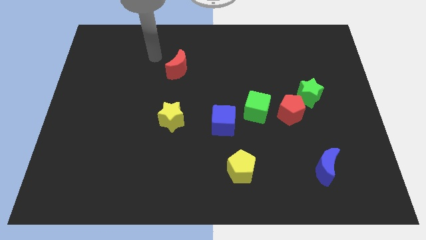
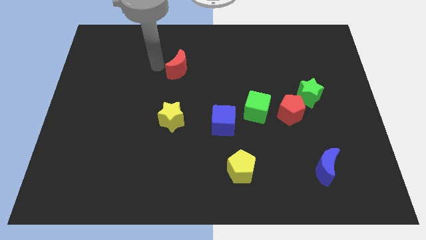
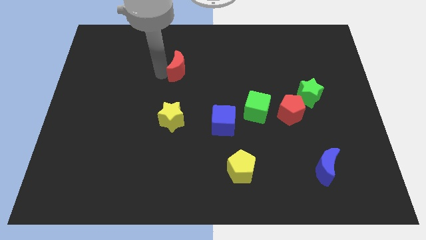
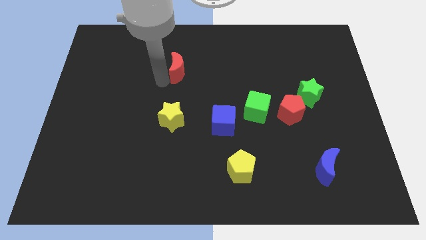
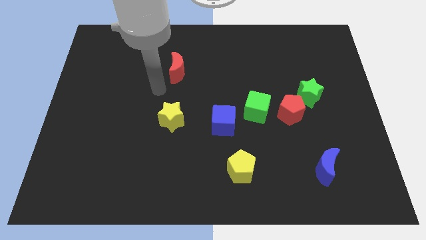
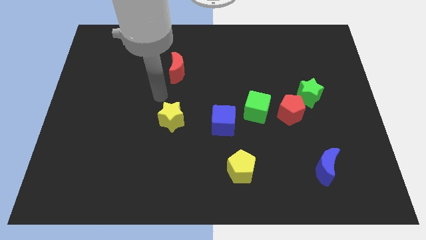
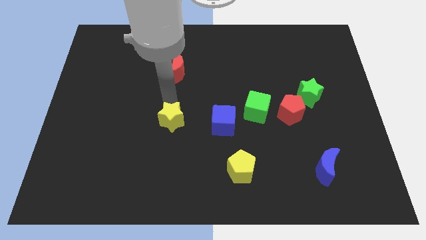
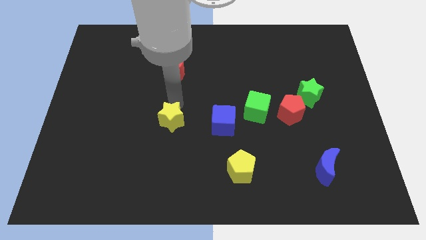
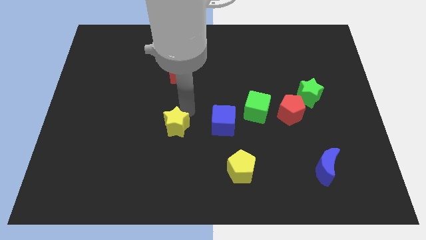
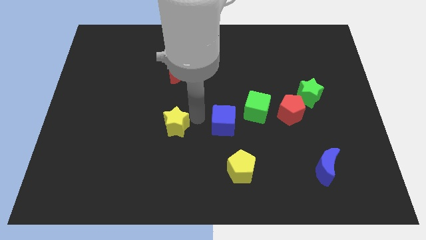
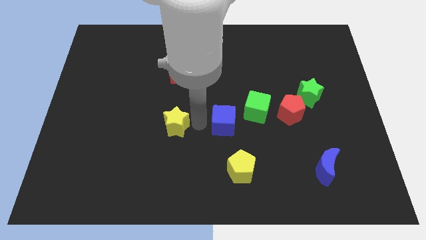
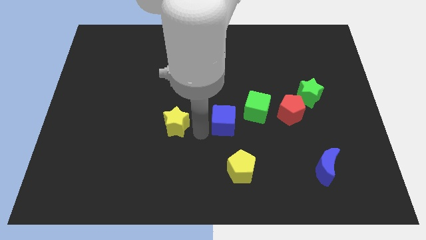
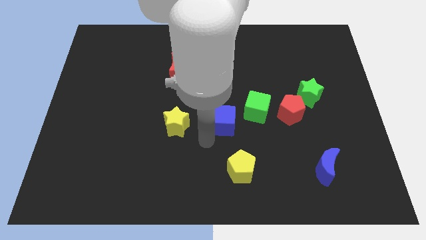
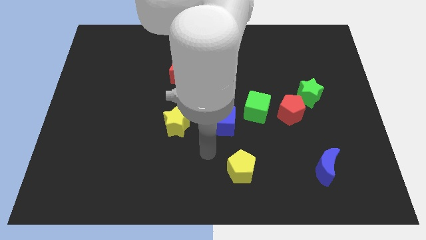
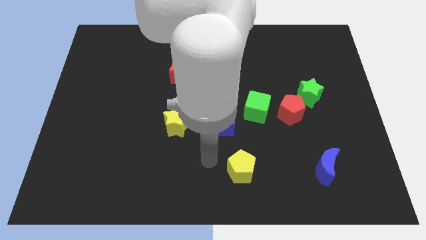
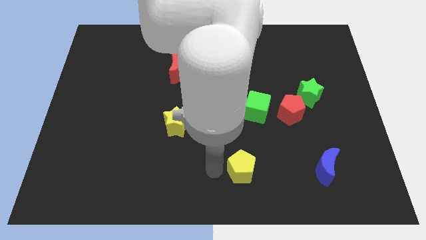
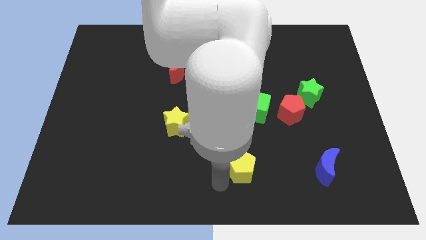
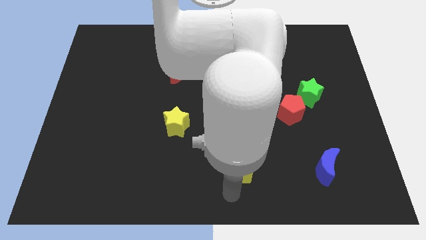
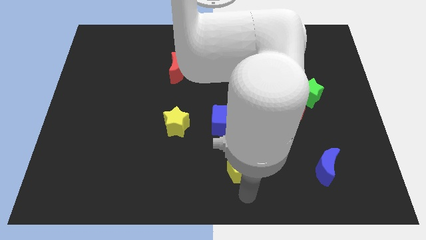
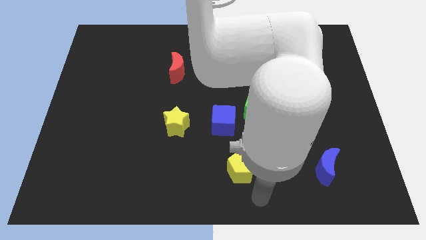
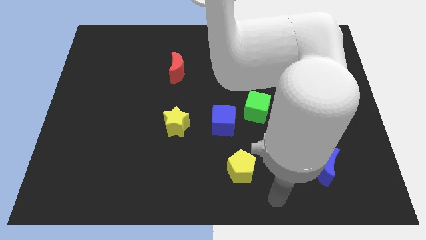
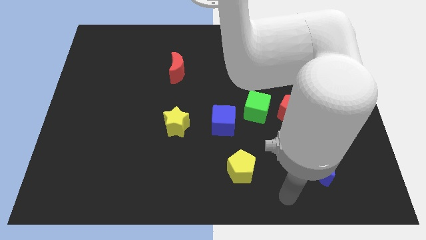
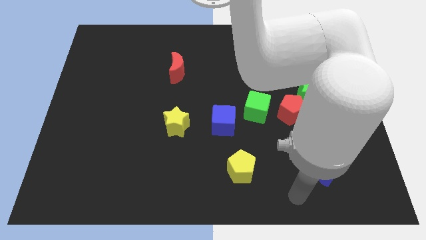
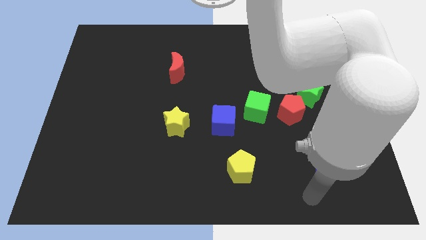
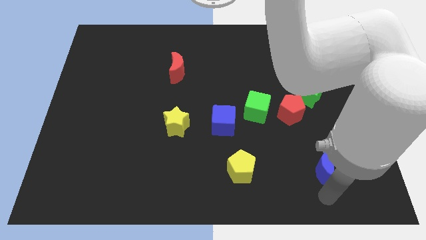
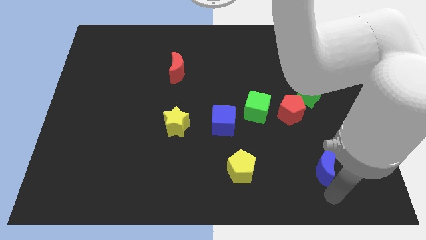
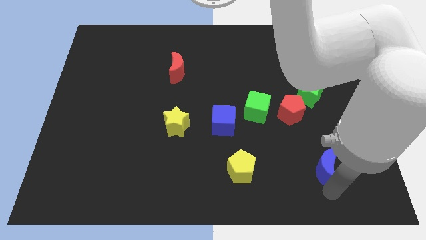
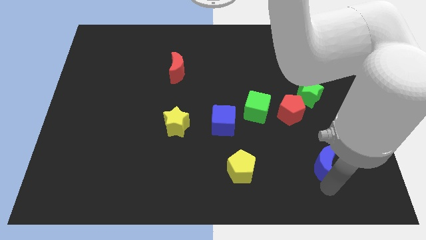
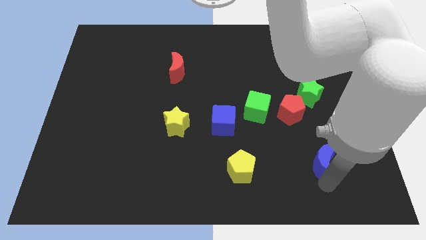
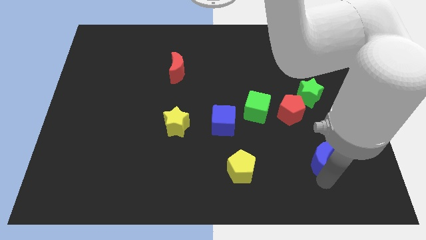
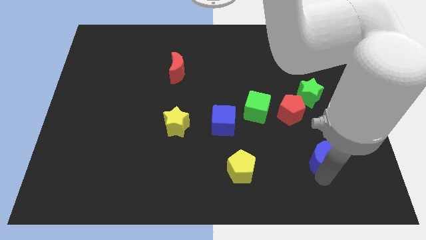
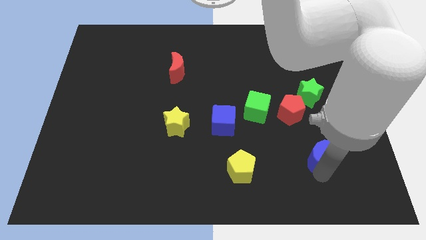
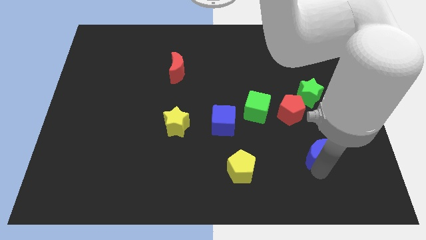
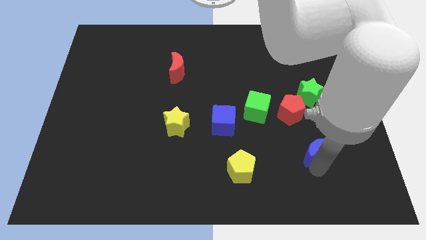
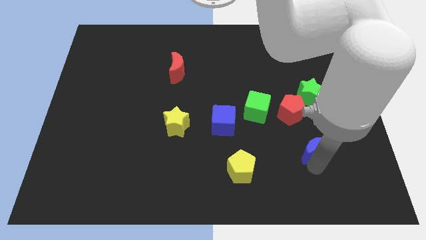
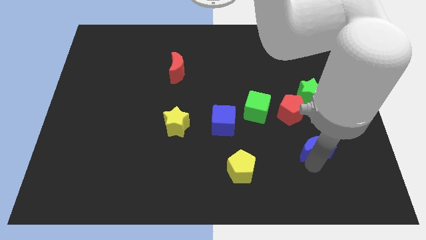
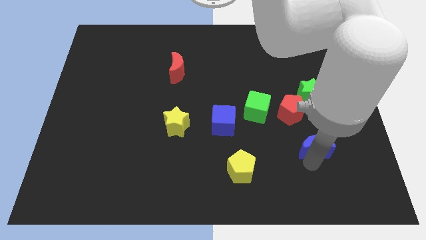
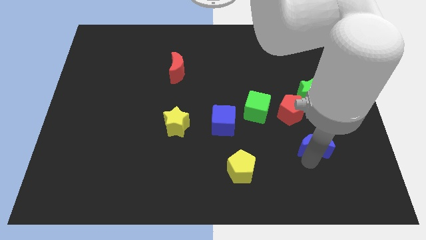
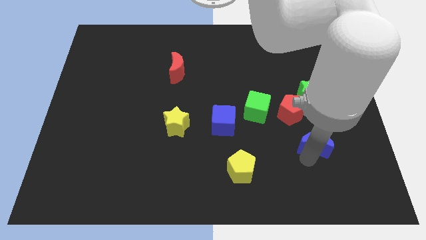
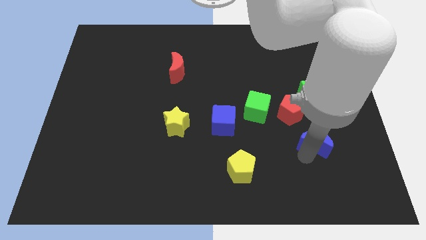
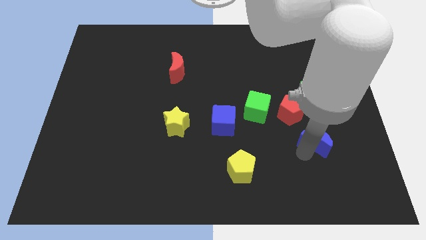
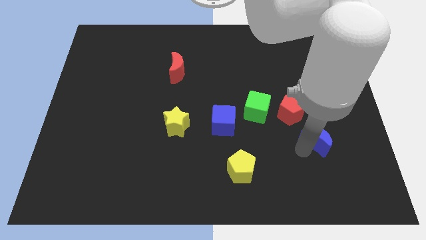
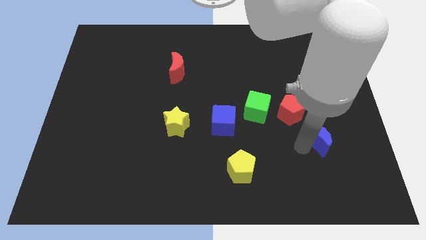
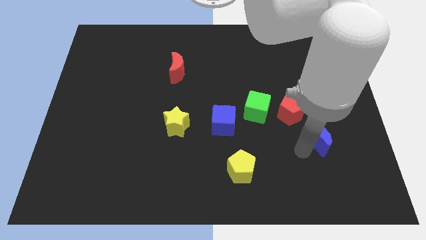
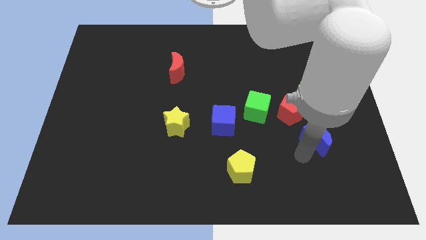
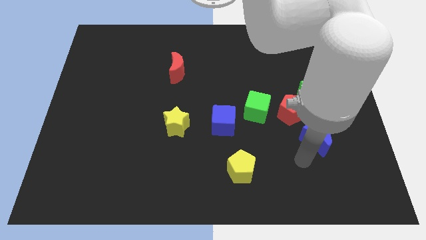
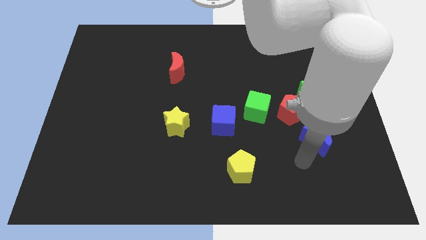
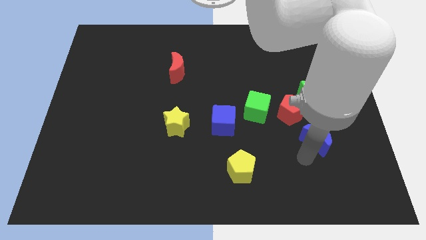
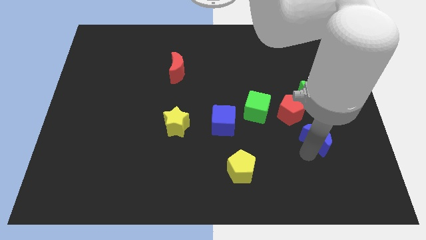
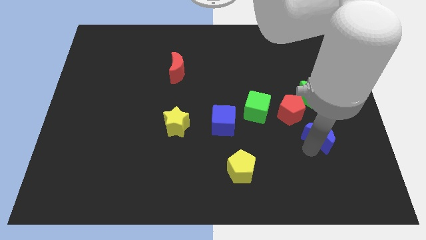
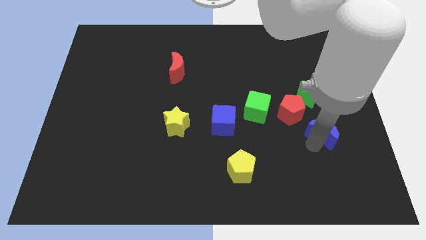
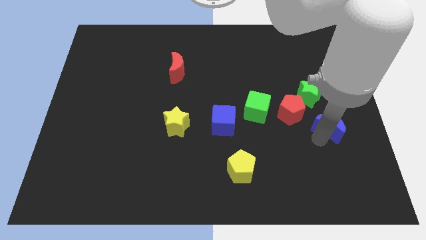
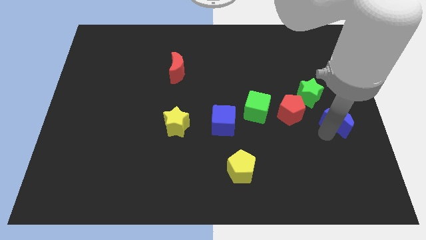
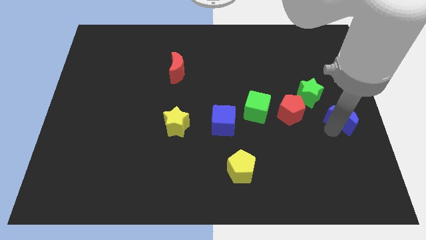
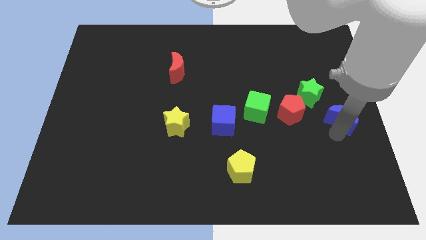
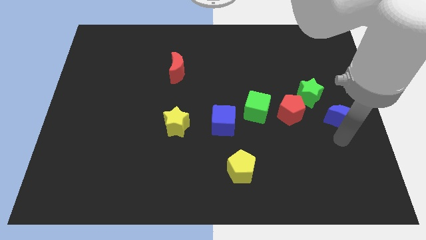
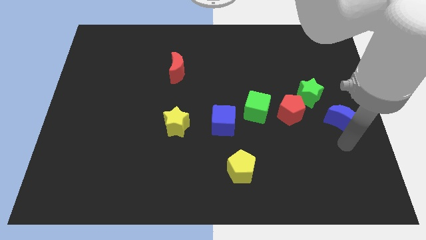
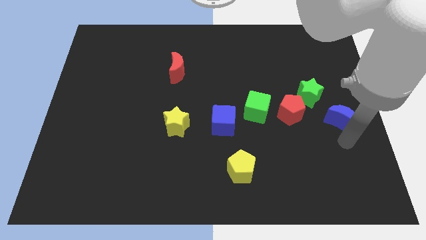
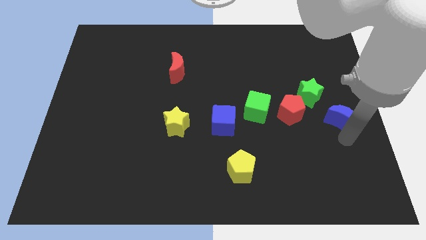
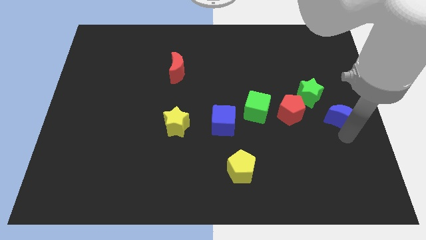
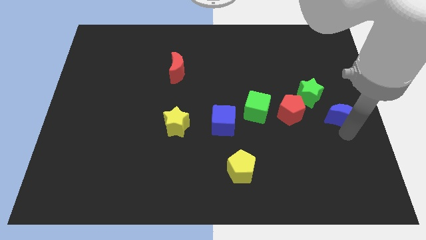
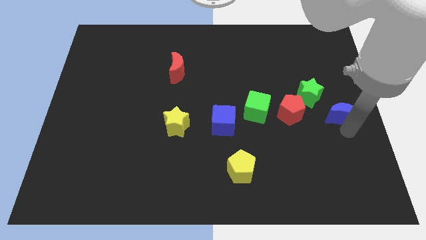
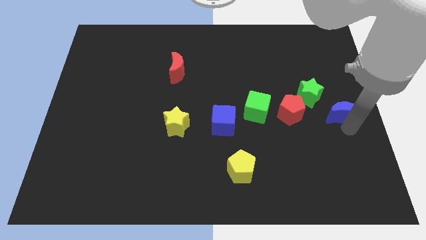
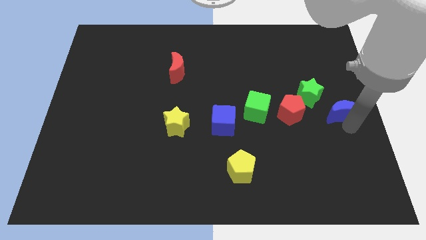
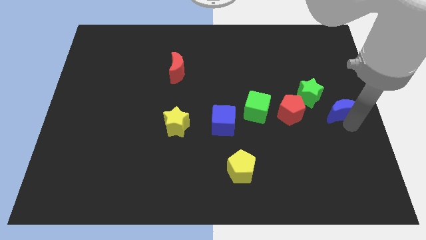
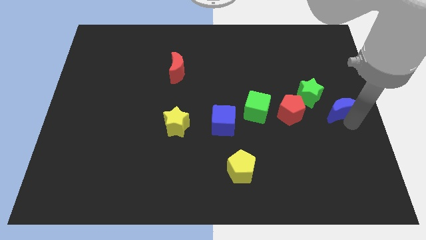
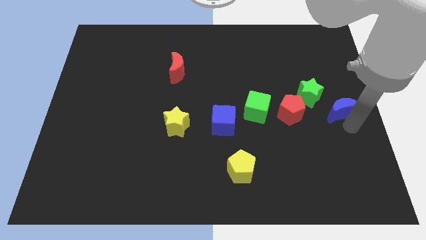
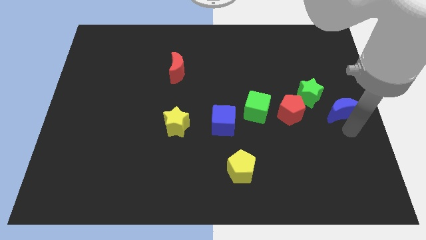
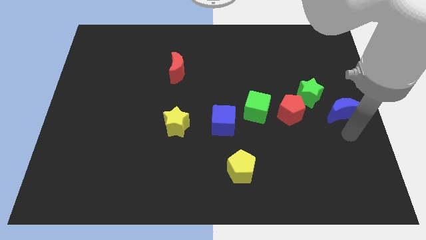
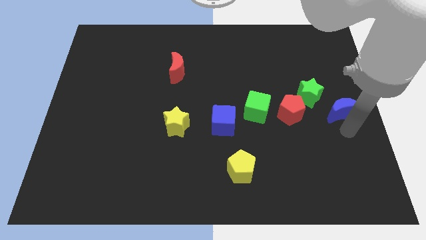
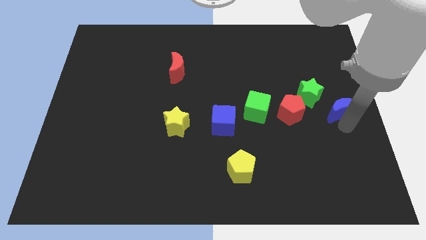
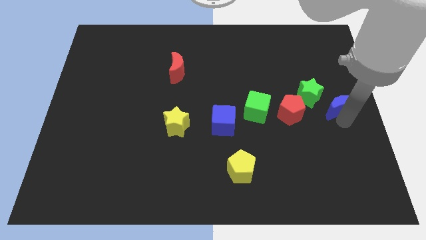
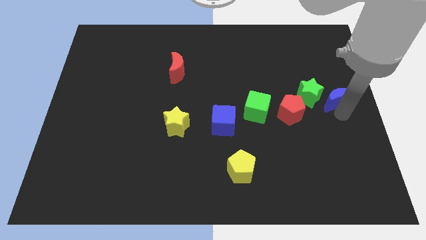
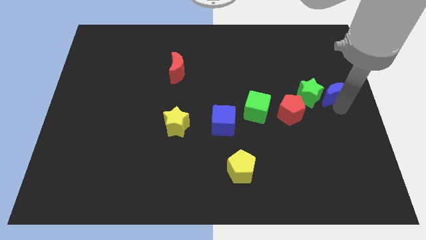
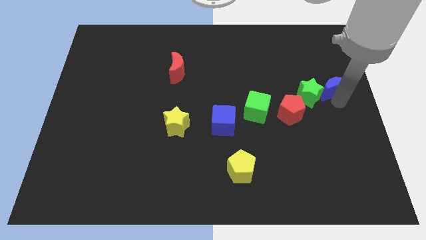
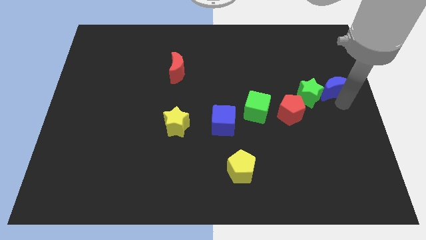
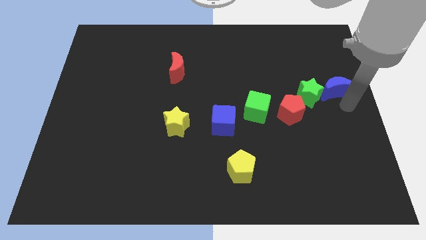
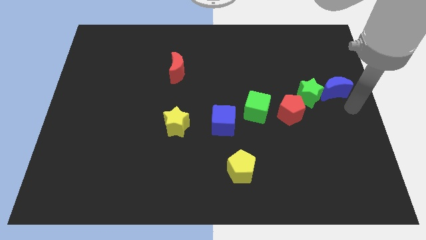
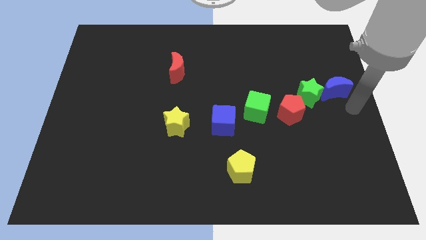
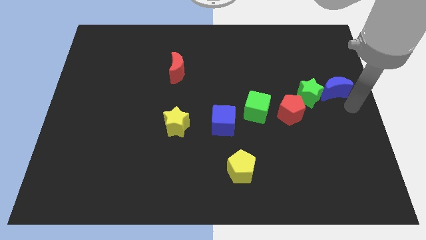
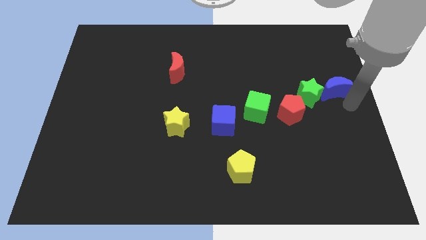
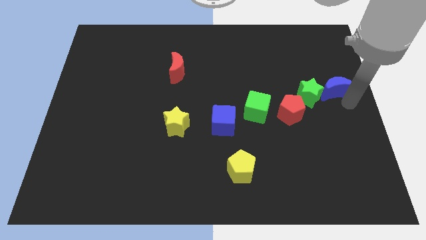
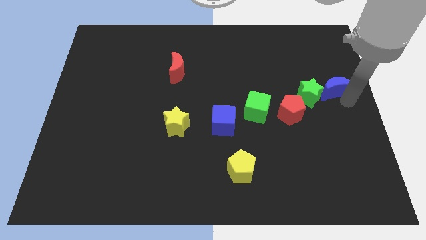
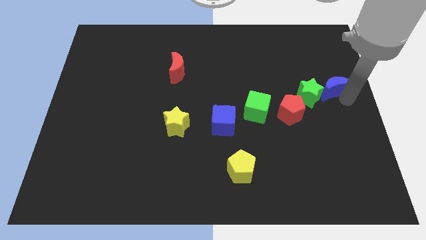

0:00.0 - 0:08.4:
move the blue moon upwards
